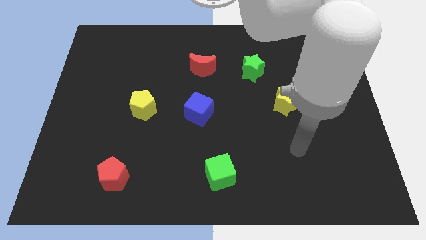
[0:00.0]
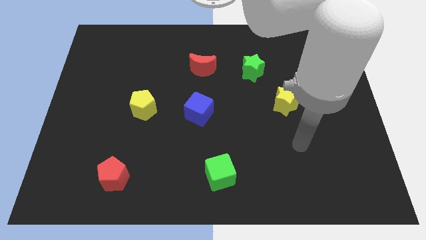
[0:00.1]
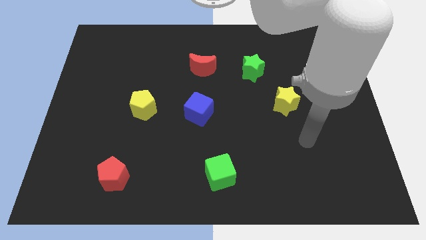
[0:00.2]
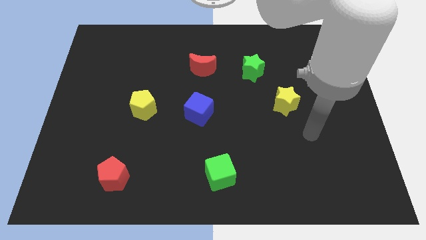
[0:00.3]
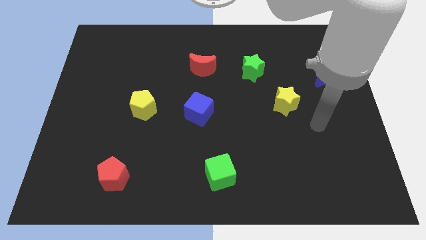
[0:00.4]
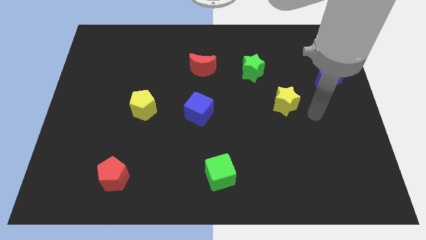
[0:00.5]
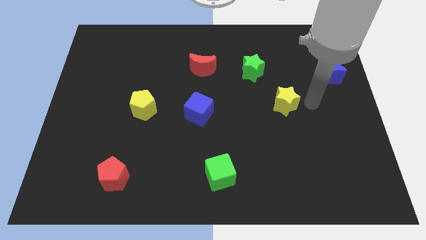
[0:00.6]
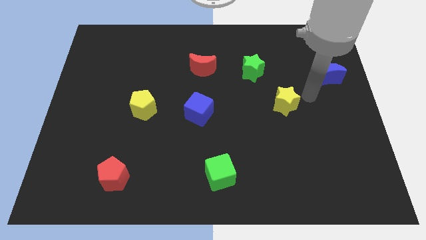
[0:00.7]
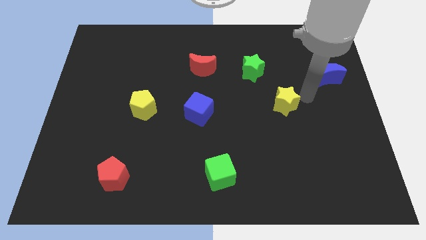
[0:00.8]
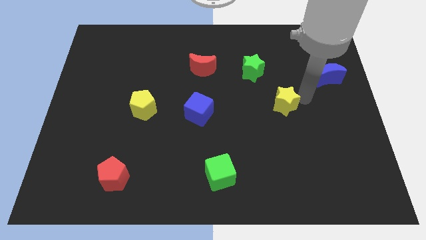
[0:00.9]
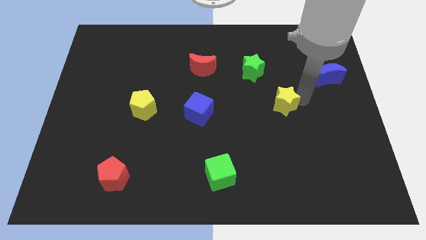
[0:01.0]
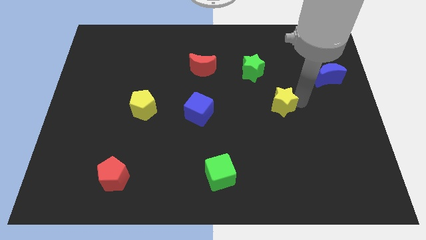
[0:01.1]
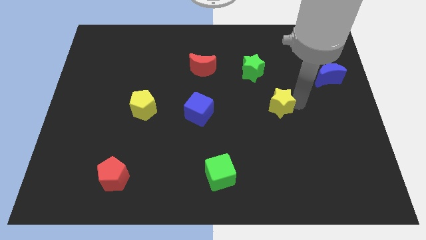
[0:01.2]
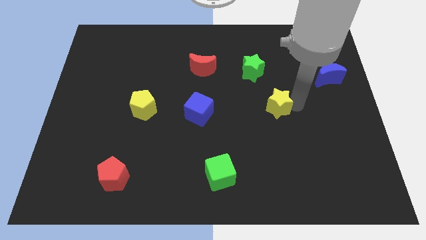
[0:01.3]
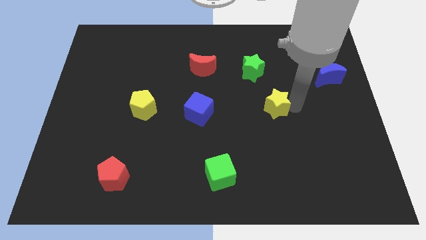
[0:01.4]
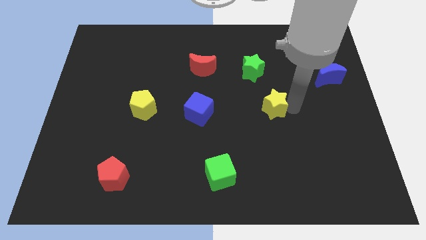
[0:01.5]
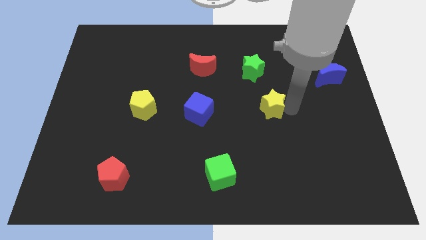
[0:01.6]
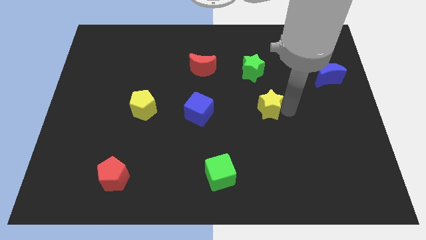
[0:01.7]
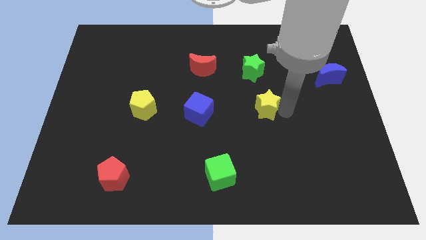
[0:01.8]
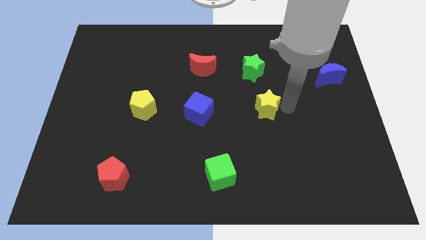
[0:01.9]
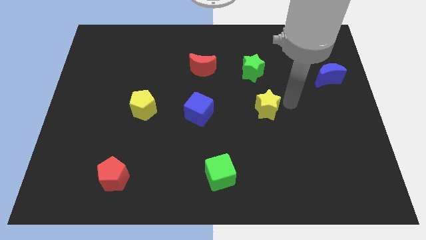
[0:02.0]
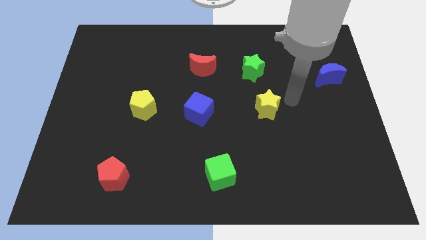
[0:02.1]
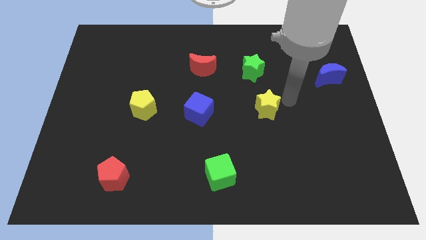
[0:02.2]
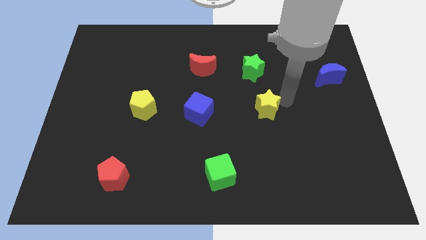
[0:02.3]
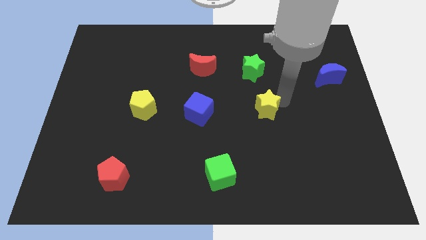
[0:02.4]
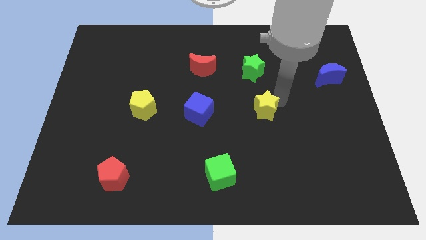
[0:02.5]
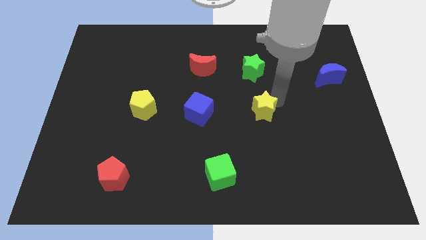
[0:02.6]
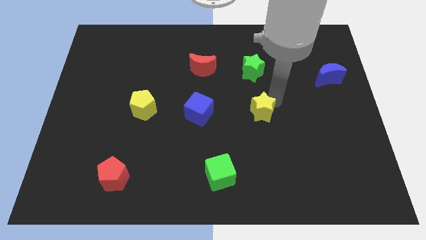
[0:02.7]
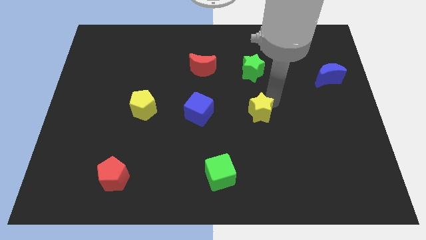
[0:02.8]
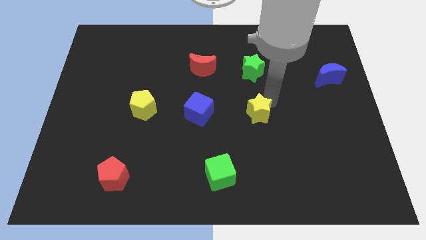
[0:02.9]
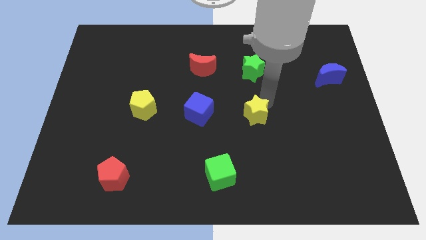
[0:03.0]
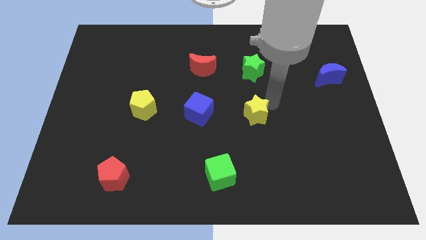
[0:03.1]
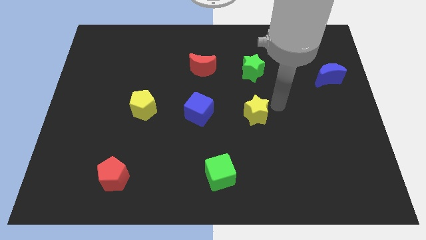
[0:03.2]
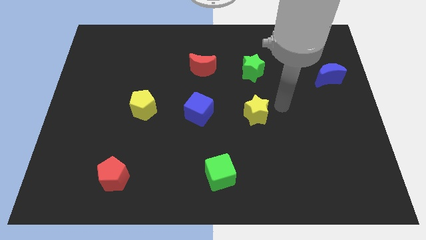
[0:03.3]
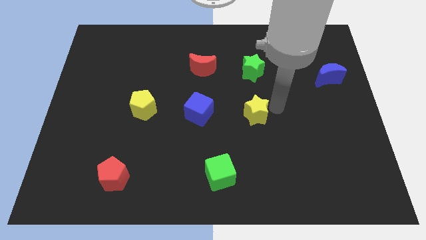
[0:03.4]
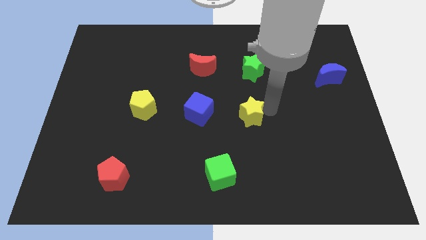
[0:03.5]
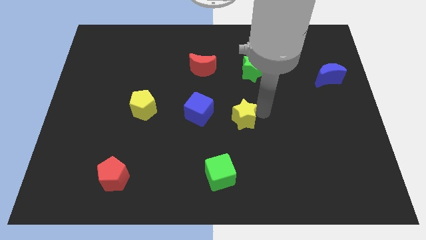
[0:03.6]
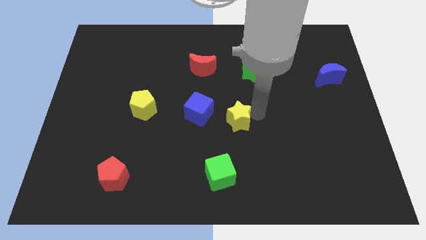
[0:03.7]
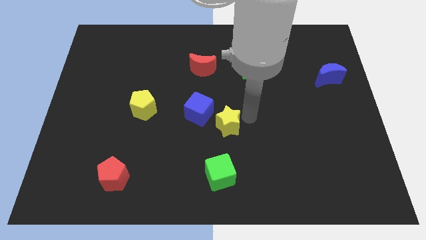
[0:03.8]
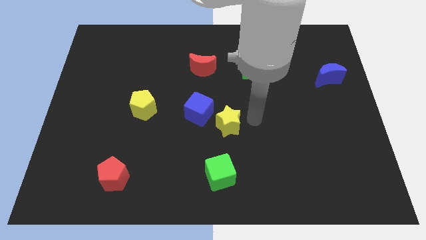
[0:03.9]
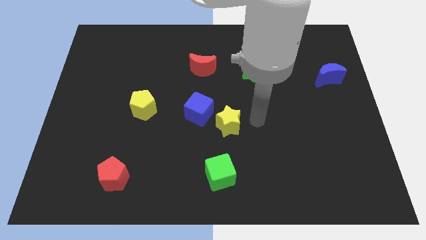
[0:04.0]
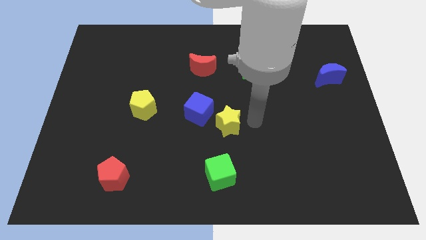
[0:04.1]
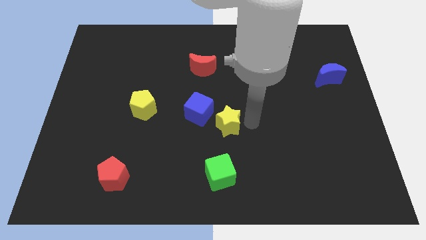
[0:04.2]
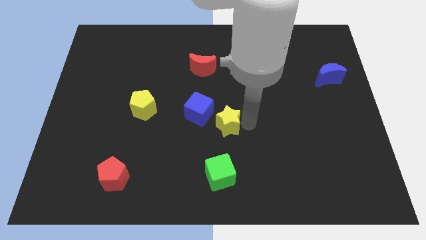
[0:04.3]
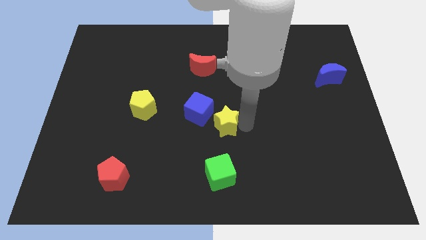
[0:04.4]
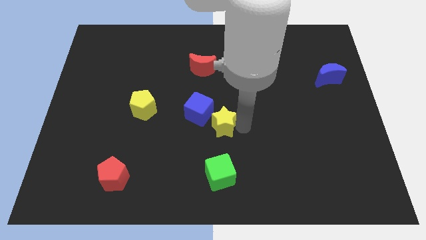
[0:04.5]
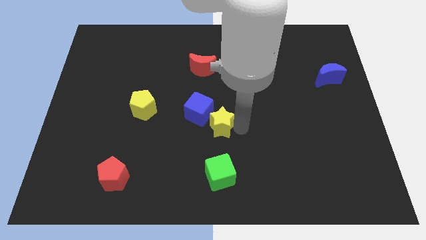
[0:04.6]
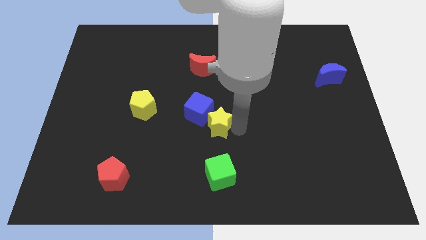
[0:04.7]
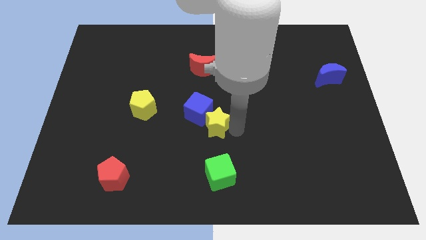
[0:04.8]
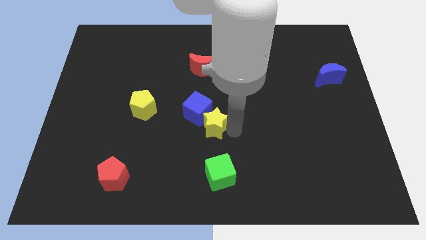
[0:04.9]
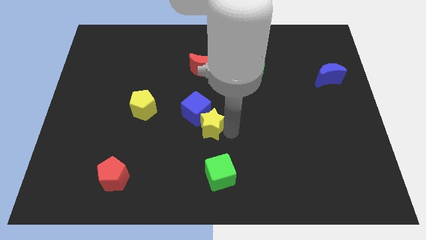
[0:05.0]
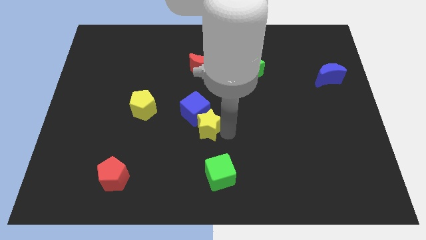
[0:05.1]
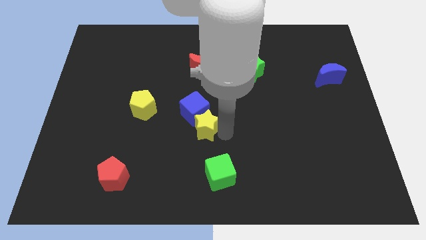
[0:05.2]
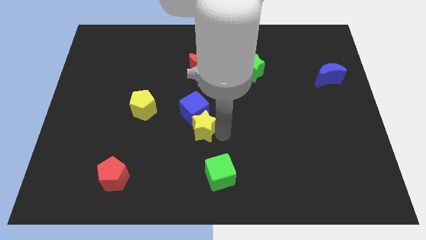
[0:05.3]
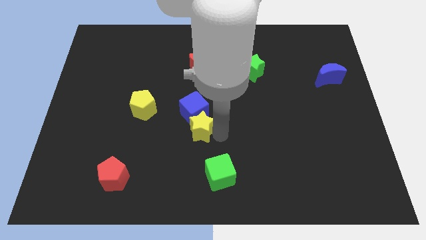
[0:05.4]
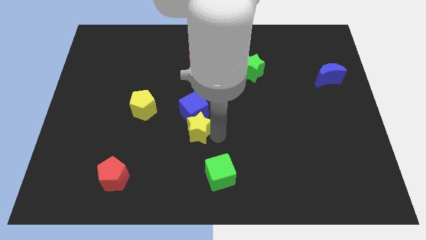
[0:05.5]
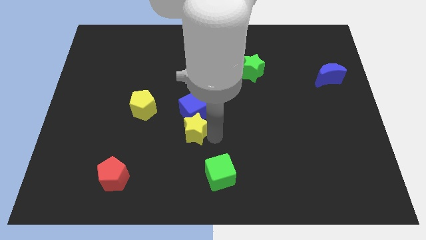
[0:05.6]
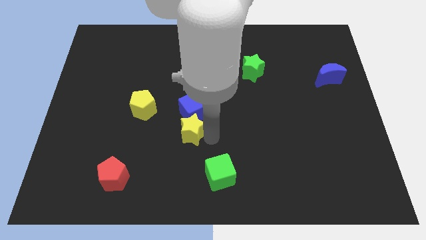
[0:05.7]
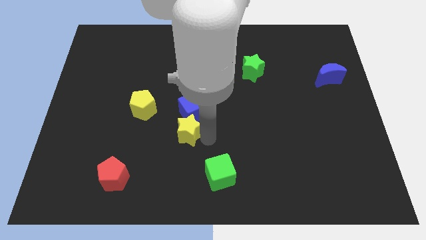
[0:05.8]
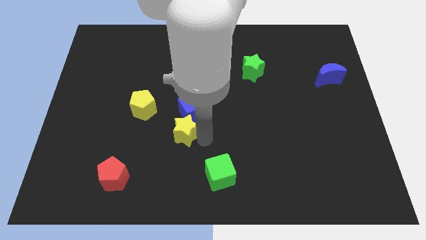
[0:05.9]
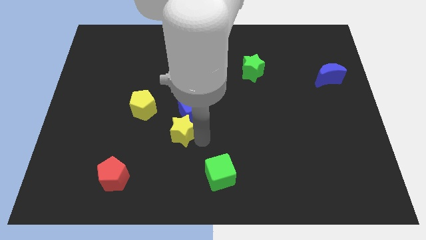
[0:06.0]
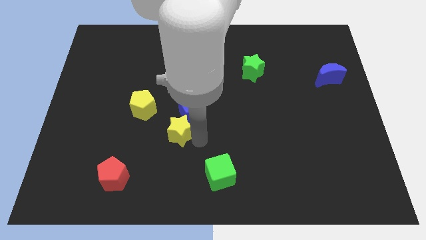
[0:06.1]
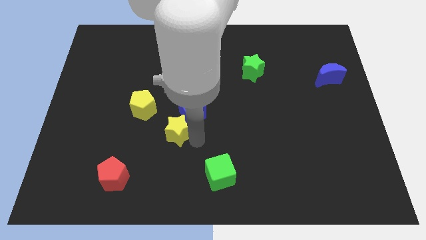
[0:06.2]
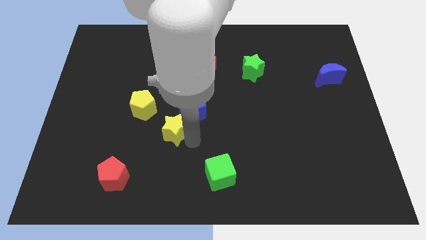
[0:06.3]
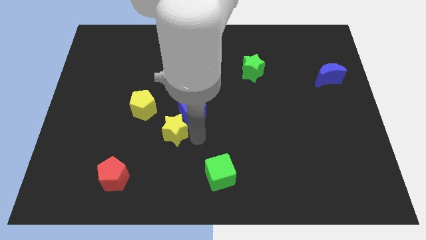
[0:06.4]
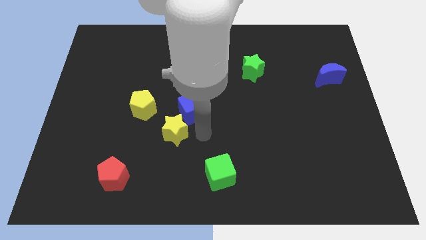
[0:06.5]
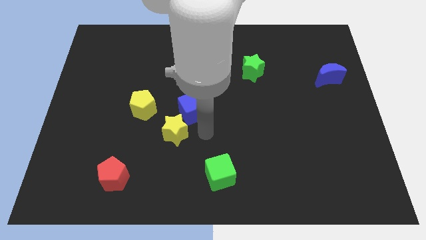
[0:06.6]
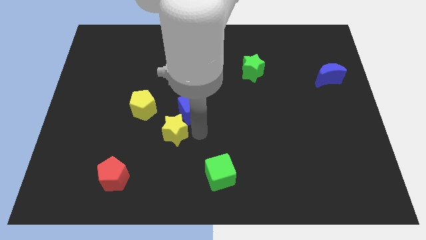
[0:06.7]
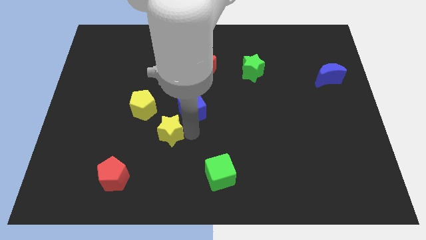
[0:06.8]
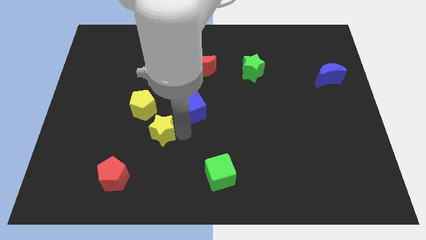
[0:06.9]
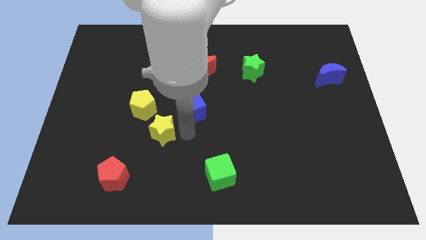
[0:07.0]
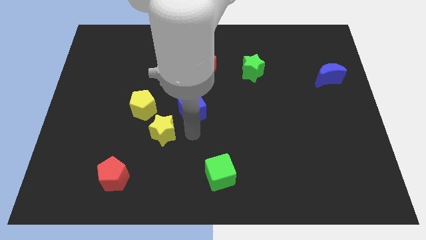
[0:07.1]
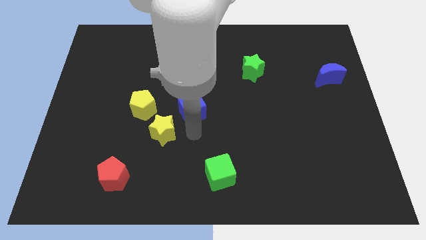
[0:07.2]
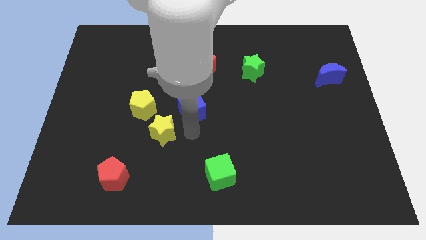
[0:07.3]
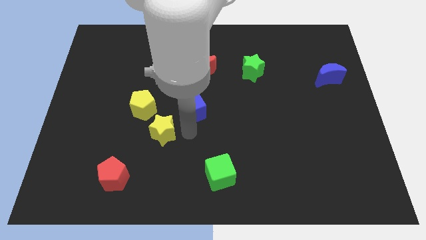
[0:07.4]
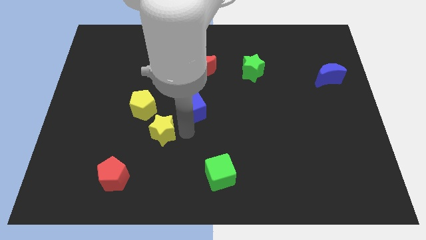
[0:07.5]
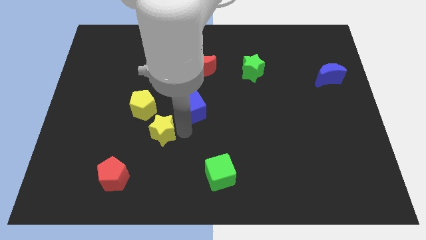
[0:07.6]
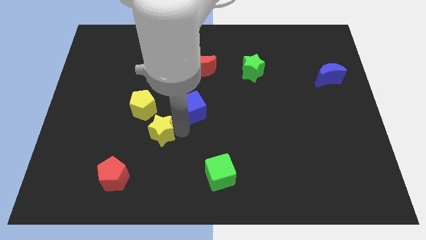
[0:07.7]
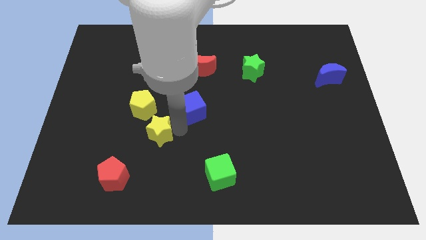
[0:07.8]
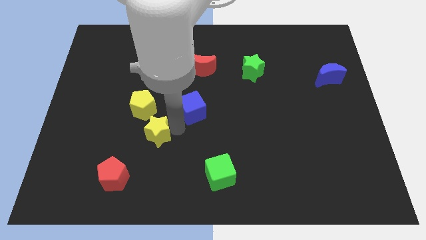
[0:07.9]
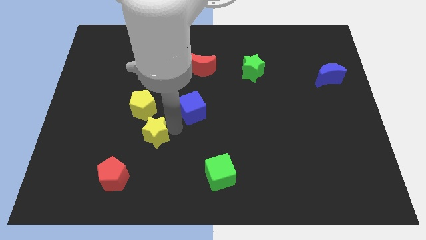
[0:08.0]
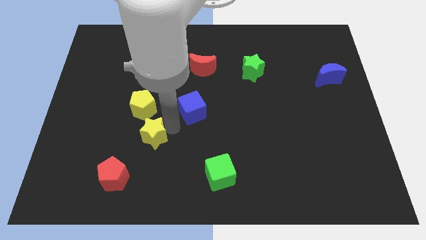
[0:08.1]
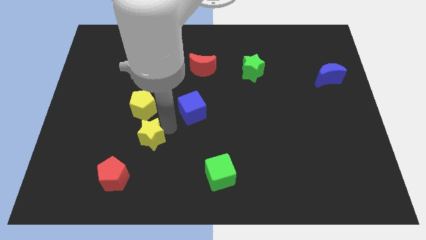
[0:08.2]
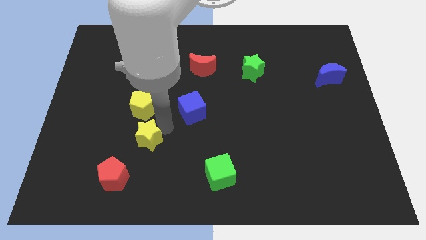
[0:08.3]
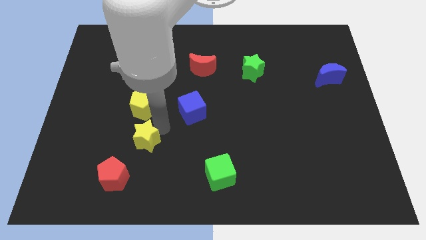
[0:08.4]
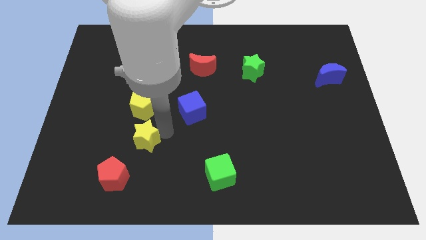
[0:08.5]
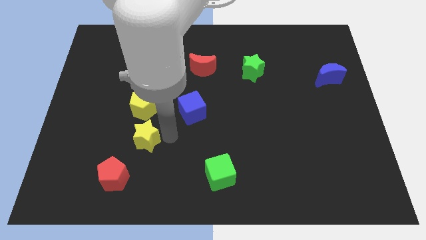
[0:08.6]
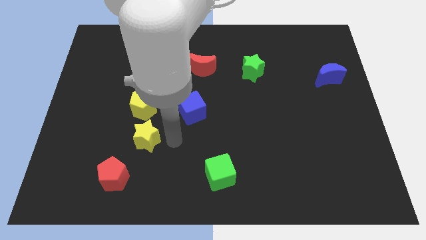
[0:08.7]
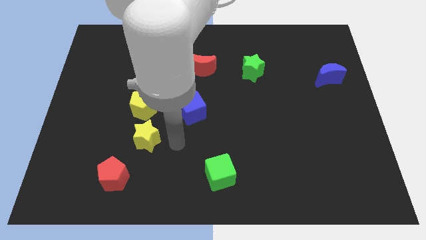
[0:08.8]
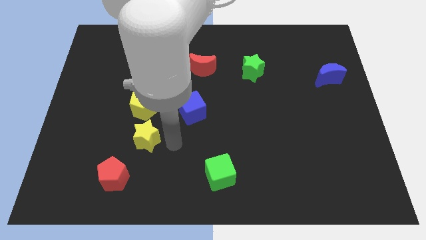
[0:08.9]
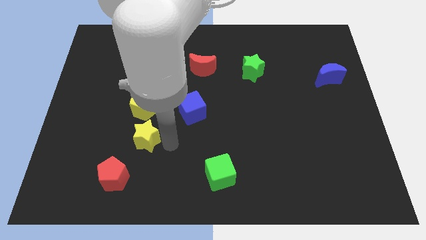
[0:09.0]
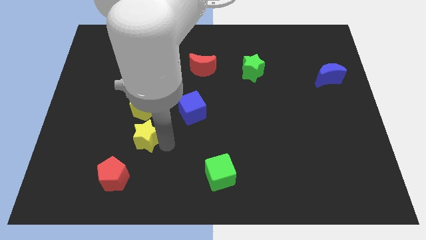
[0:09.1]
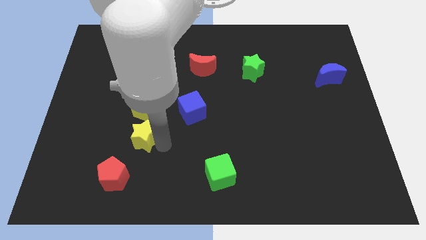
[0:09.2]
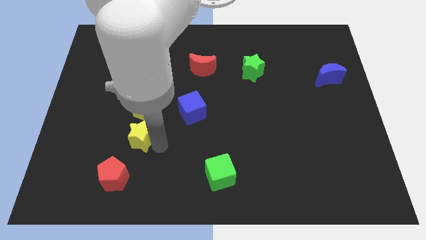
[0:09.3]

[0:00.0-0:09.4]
slide the yellow star to the top side of the red pentagon
